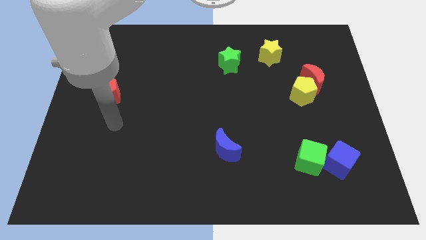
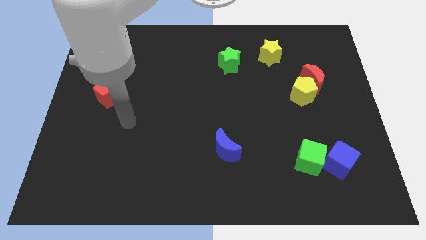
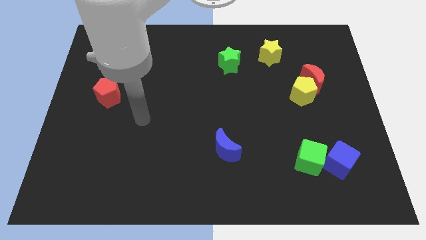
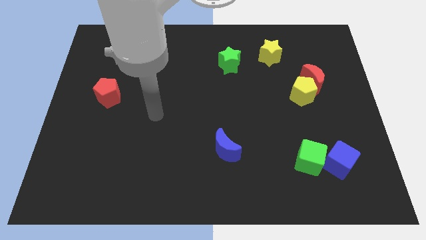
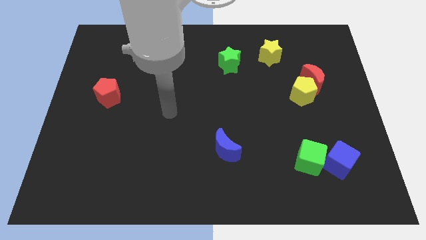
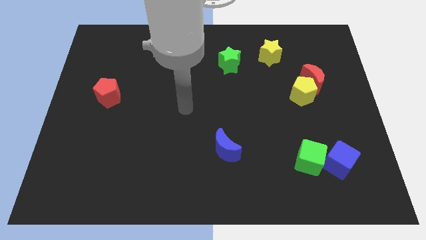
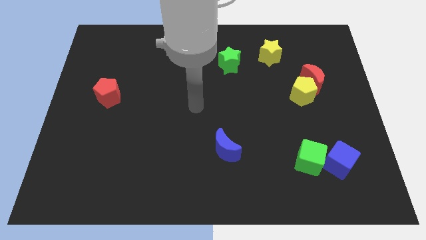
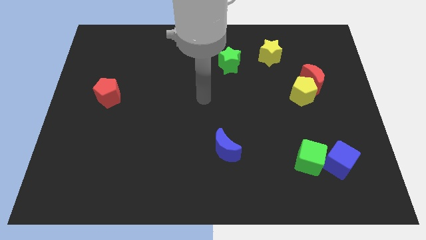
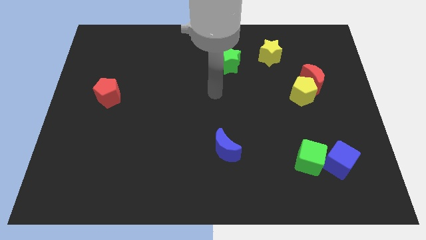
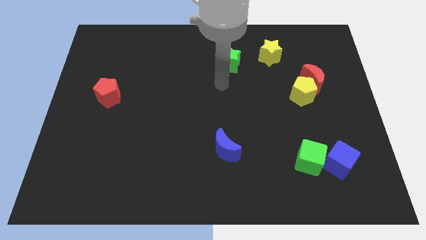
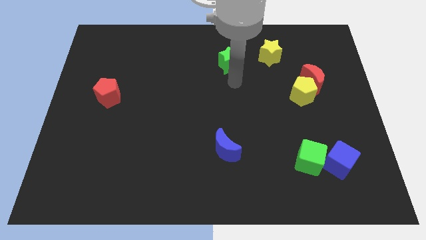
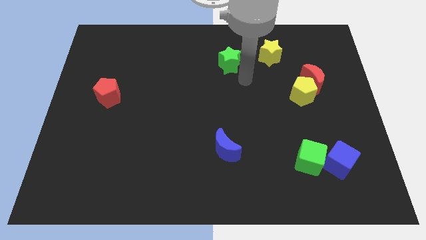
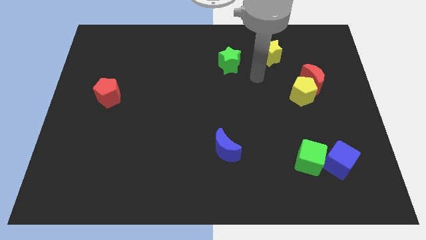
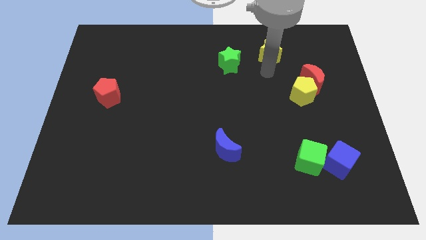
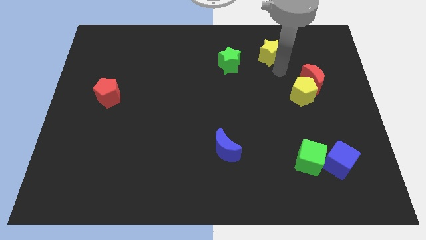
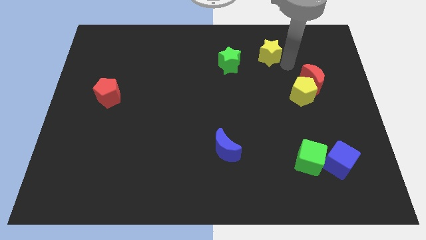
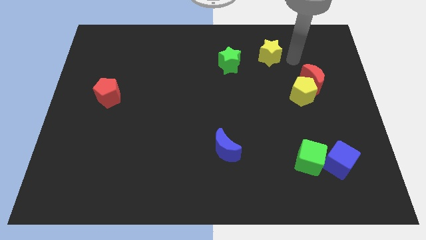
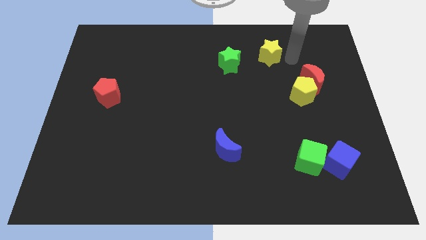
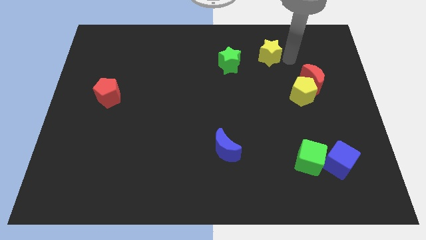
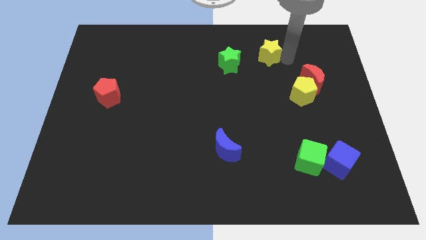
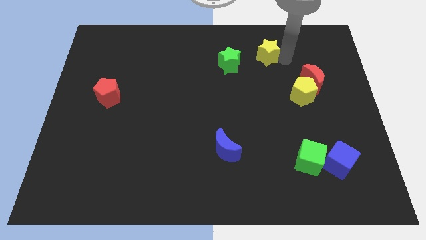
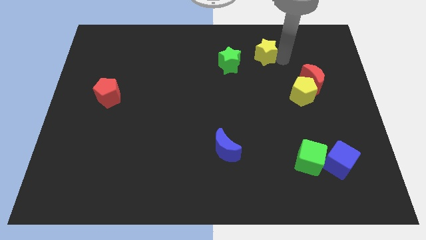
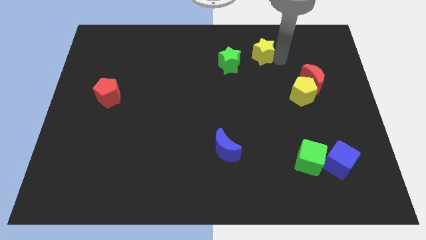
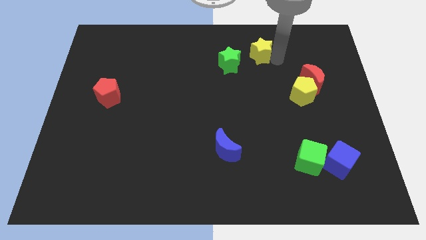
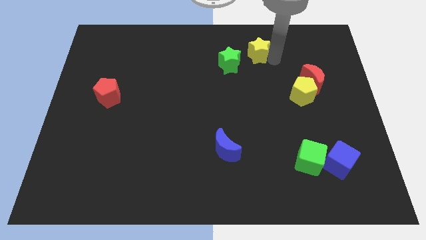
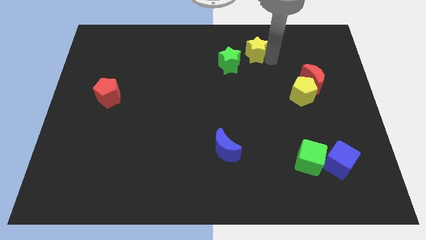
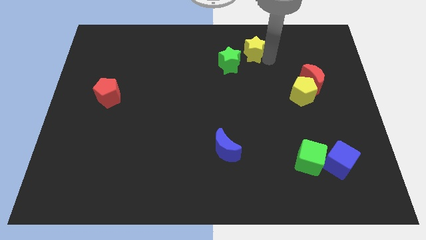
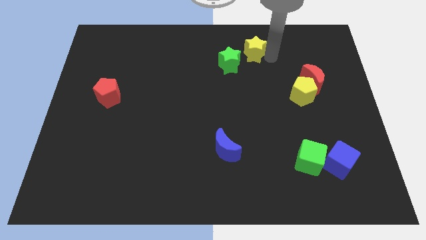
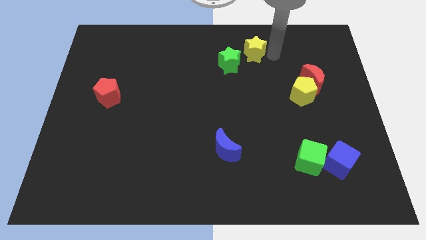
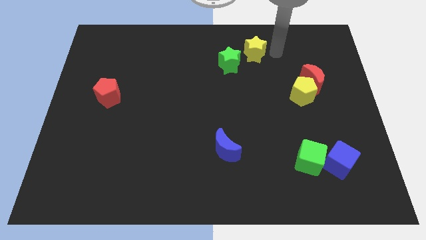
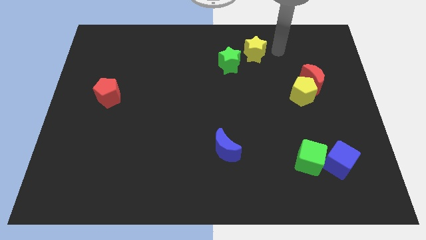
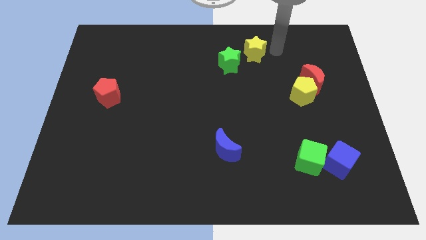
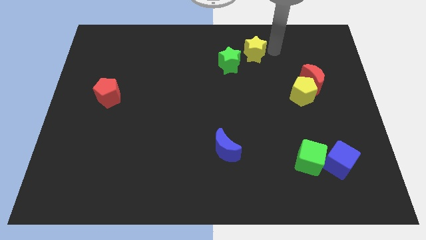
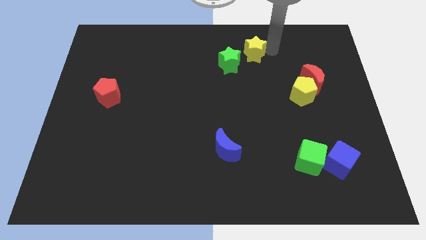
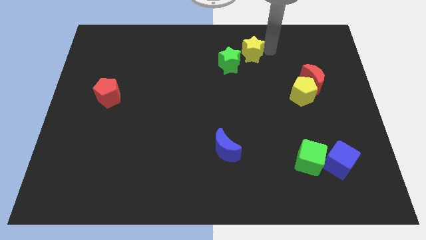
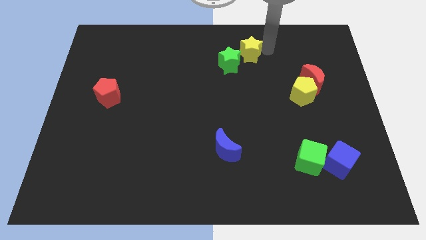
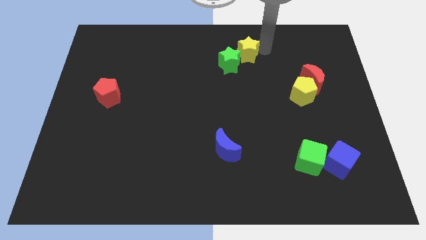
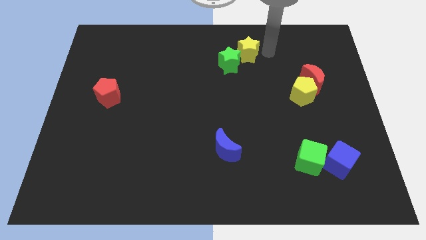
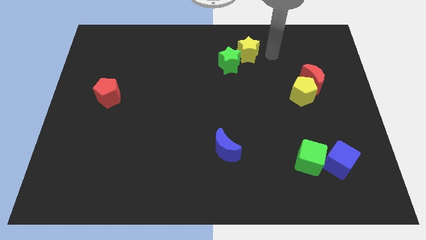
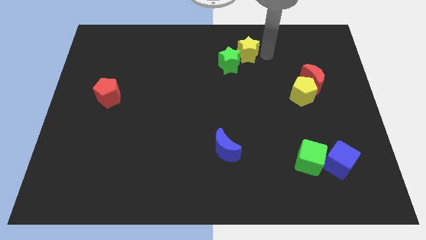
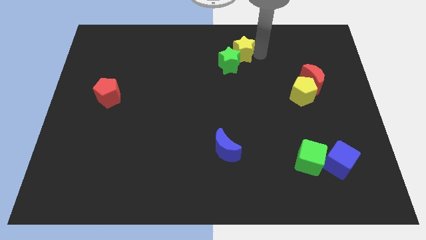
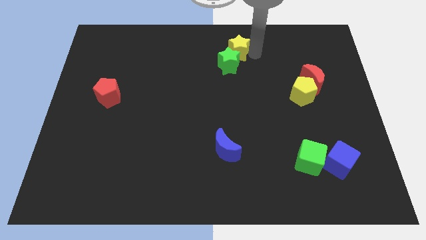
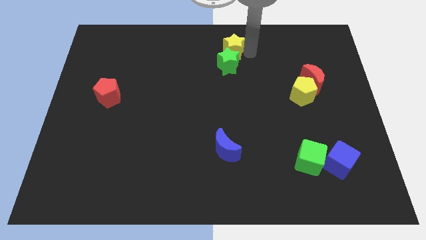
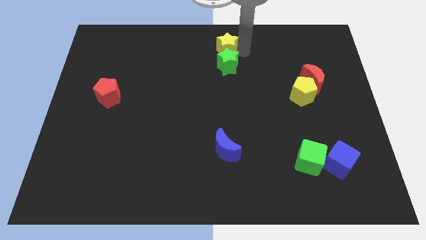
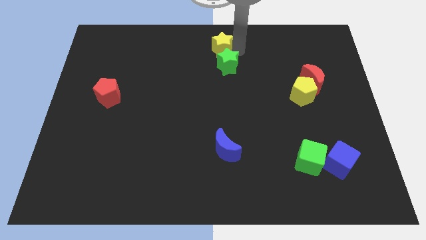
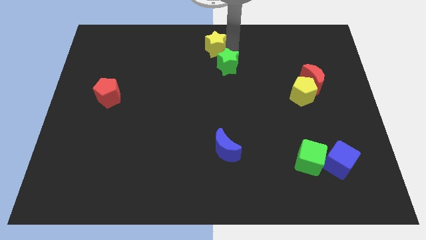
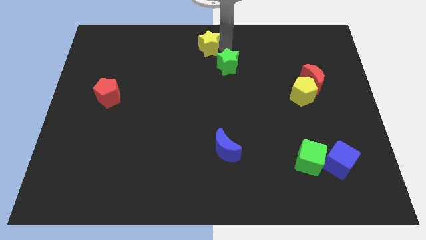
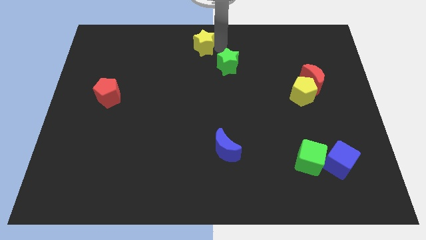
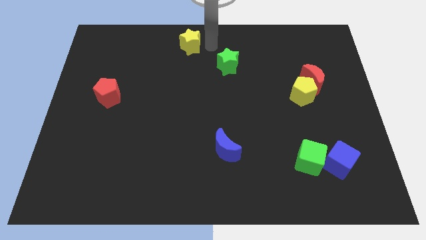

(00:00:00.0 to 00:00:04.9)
slide the yellow star left

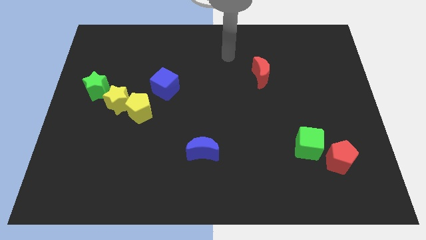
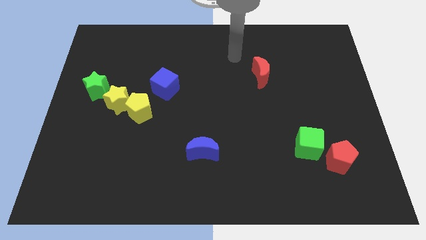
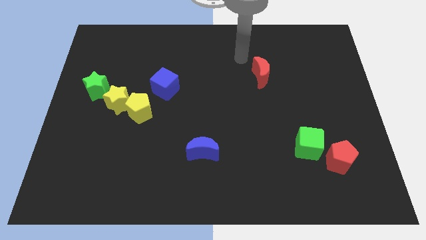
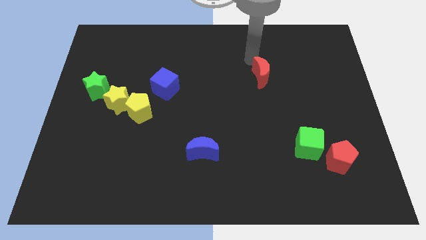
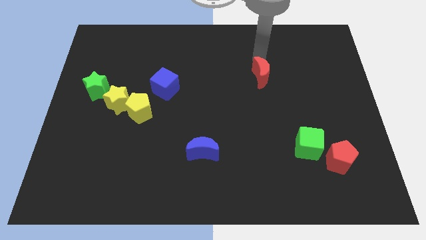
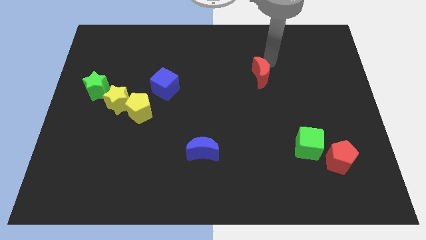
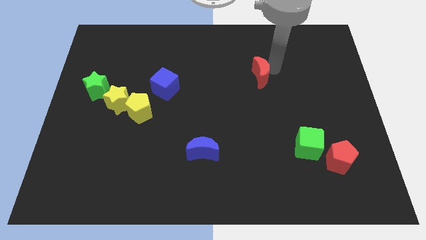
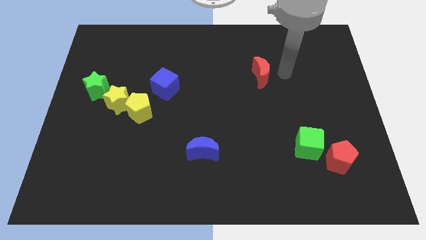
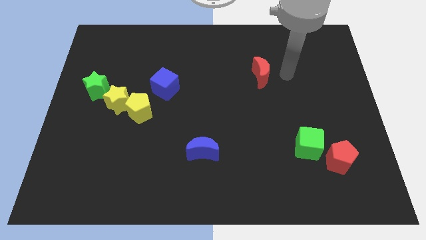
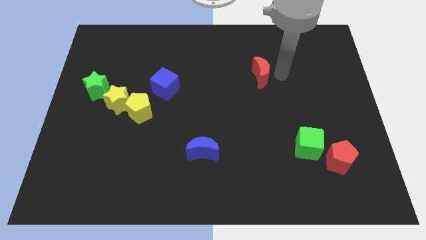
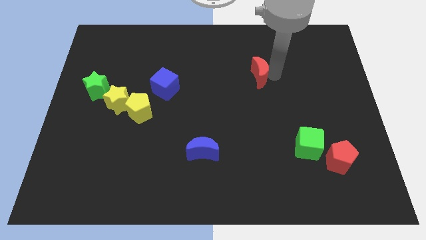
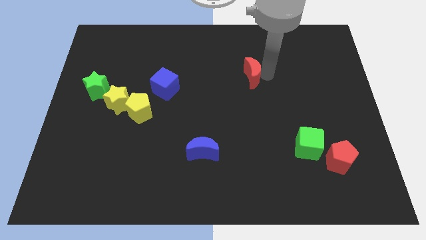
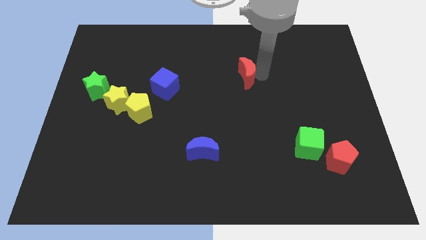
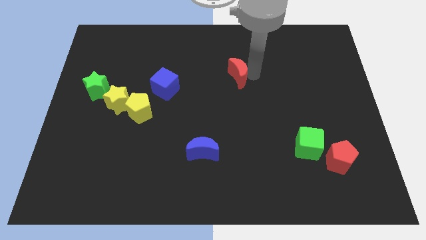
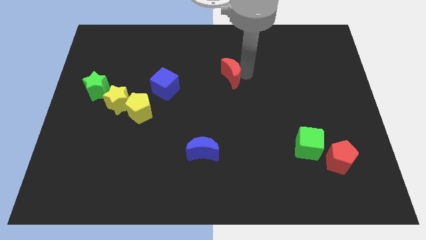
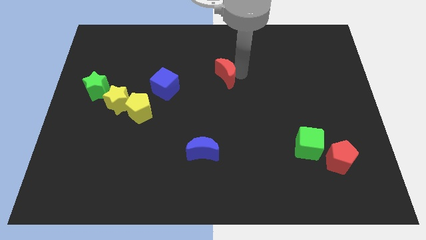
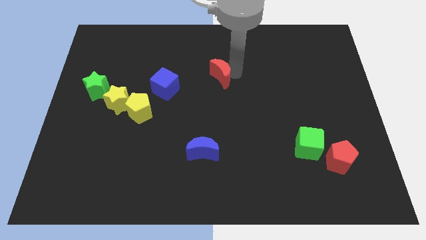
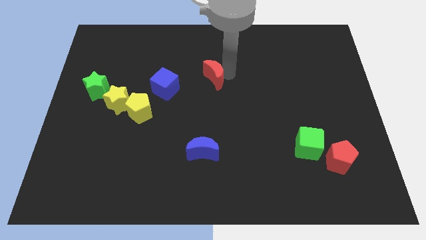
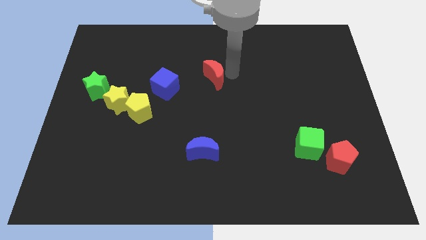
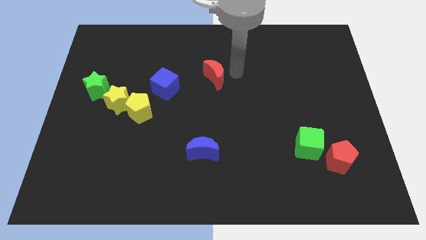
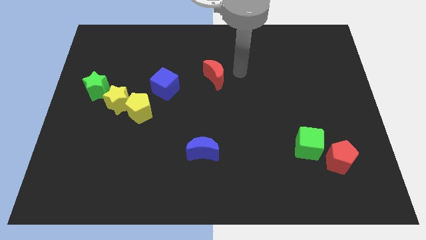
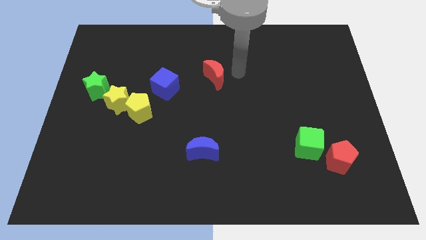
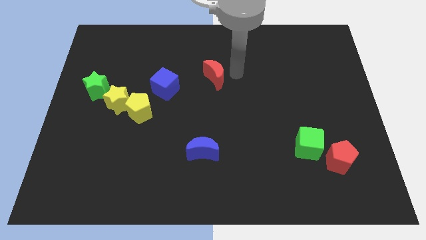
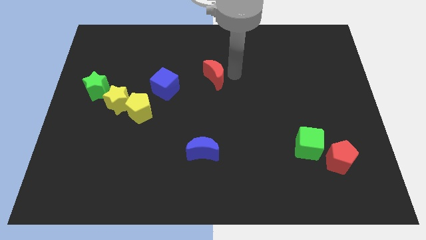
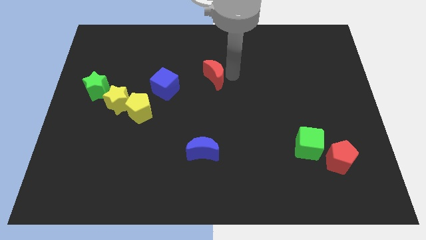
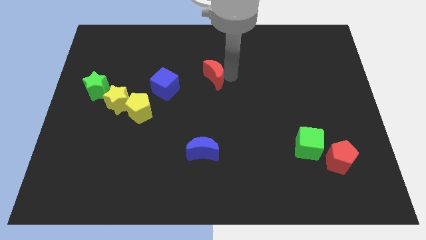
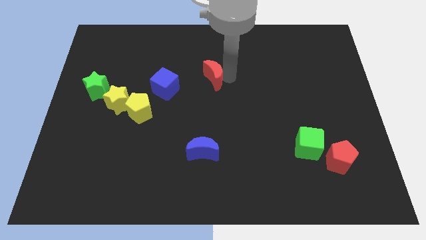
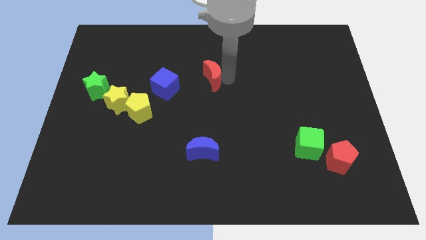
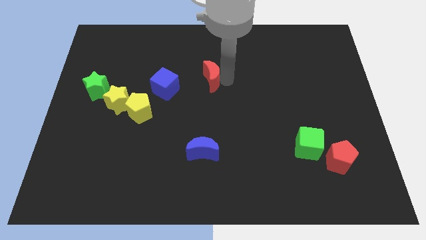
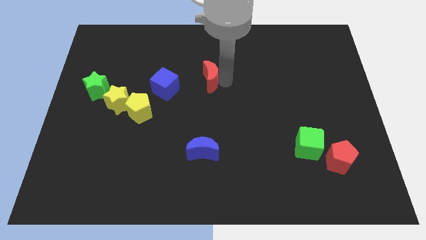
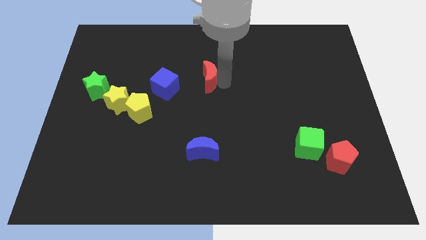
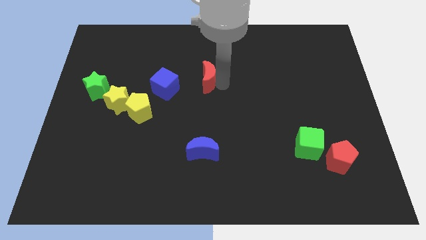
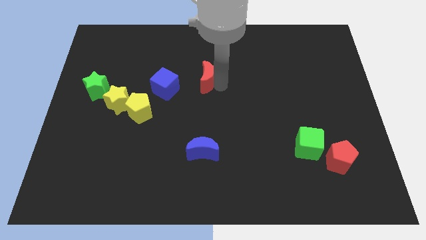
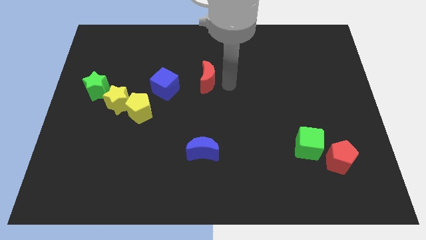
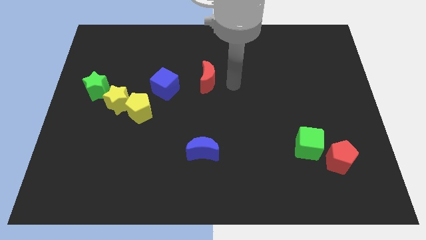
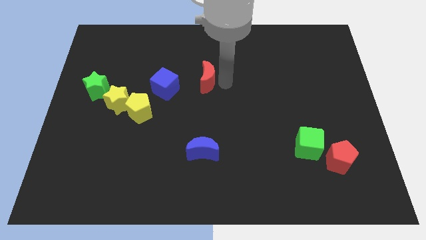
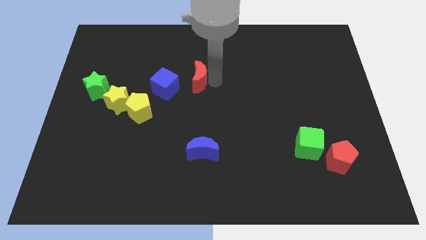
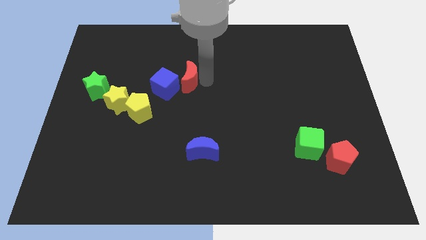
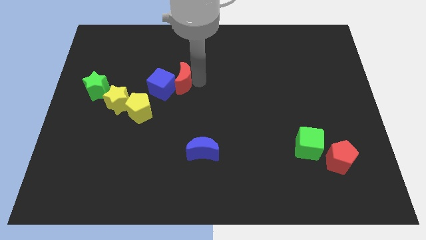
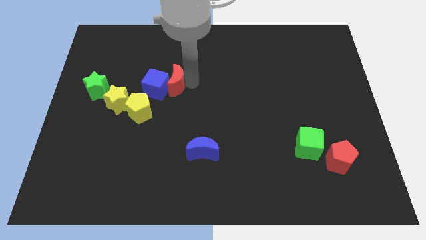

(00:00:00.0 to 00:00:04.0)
slide the red moon to the left
